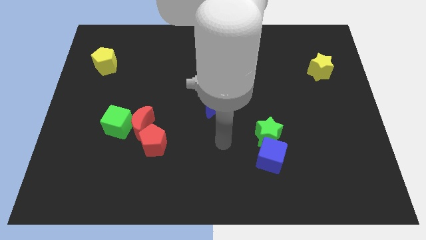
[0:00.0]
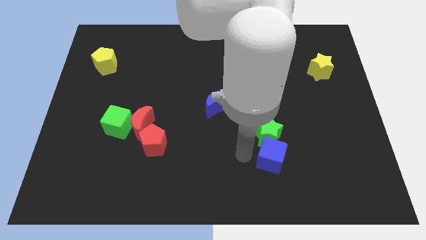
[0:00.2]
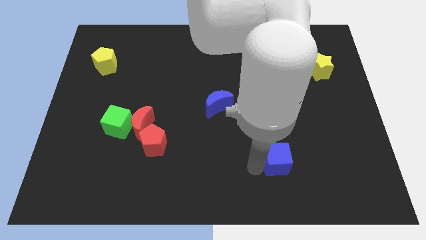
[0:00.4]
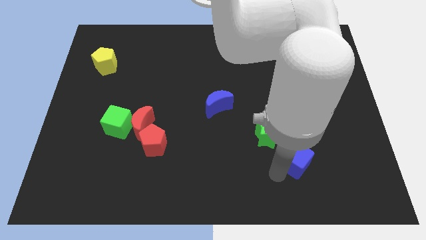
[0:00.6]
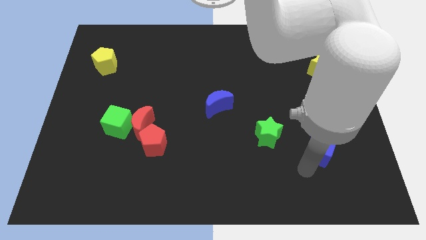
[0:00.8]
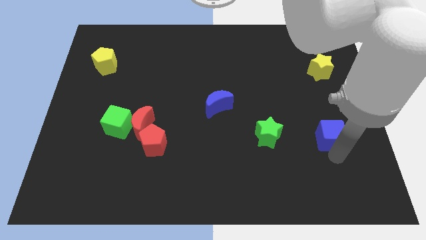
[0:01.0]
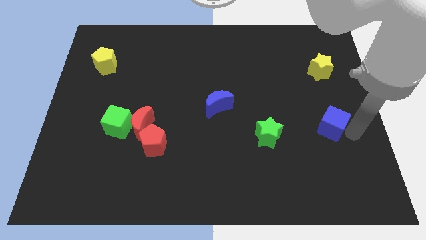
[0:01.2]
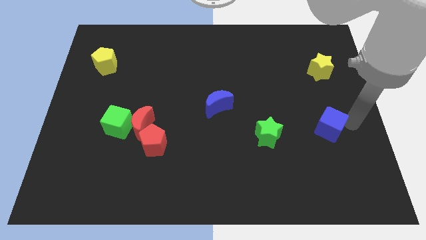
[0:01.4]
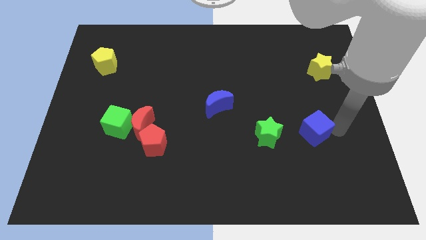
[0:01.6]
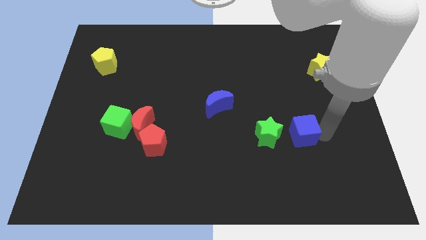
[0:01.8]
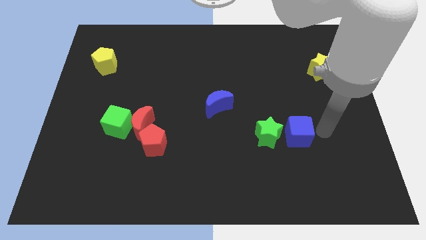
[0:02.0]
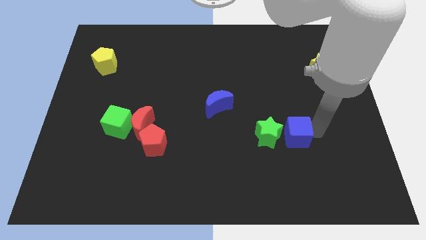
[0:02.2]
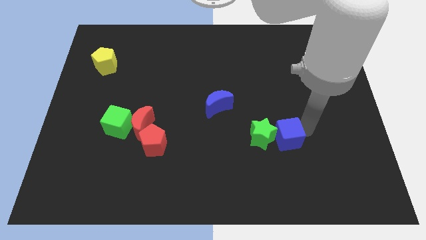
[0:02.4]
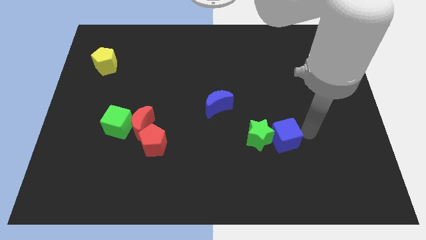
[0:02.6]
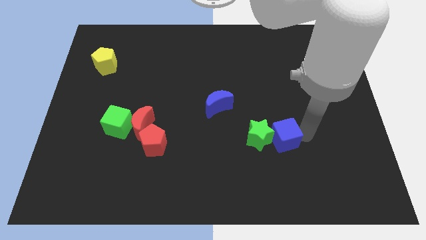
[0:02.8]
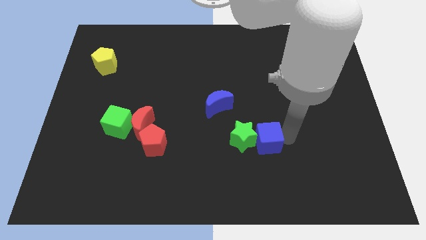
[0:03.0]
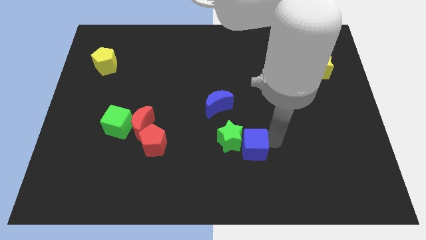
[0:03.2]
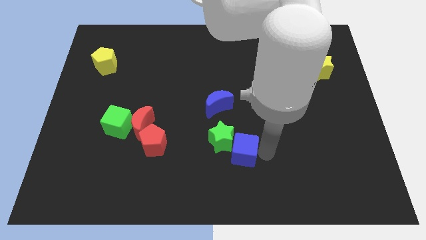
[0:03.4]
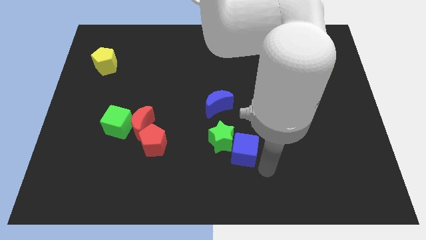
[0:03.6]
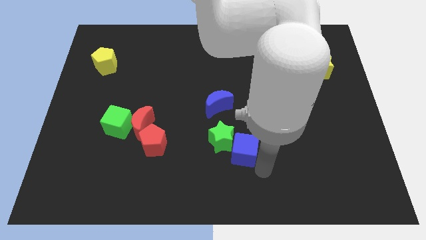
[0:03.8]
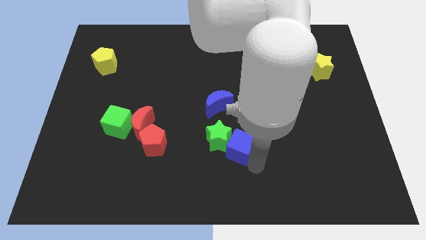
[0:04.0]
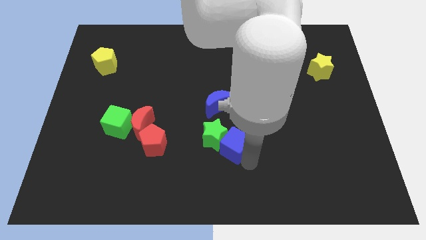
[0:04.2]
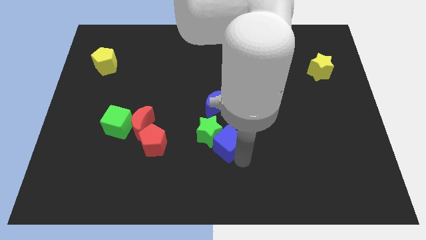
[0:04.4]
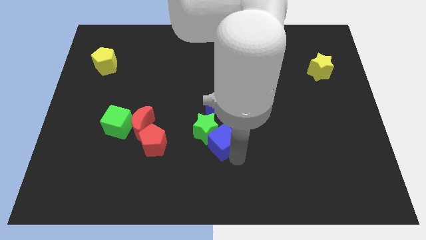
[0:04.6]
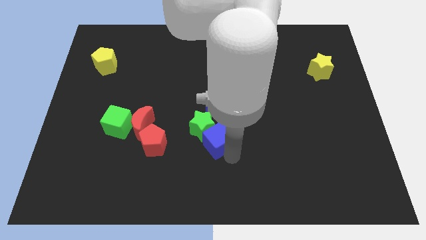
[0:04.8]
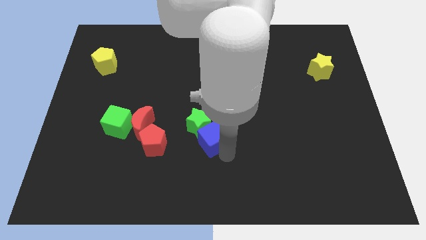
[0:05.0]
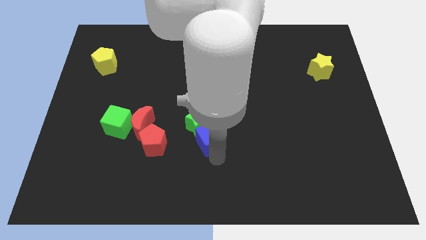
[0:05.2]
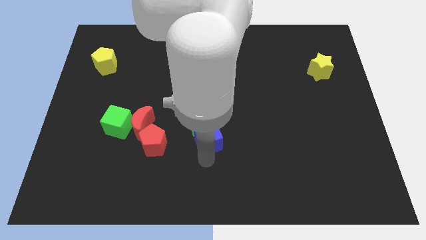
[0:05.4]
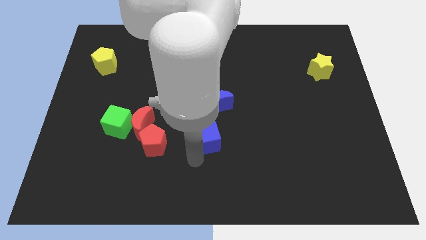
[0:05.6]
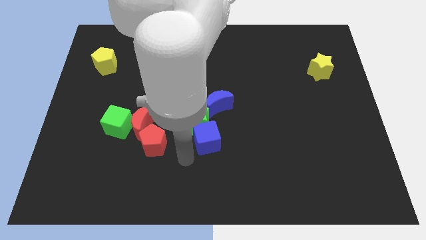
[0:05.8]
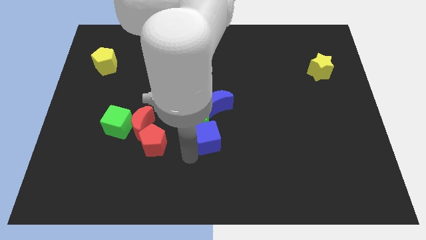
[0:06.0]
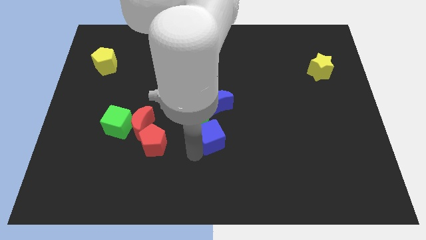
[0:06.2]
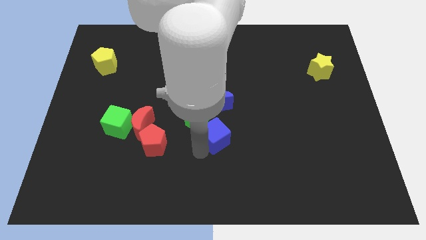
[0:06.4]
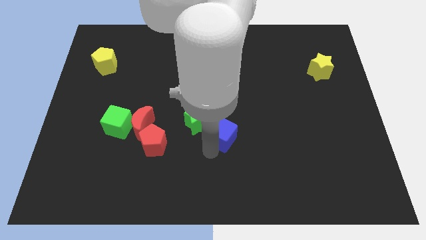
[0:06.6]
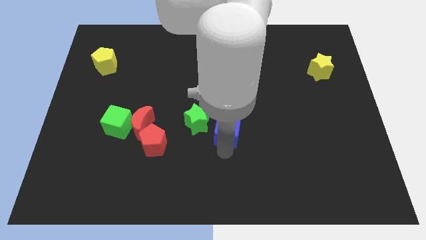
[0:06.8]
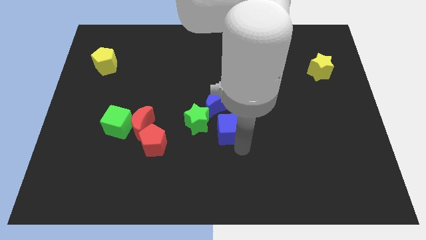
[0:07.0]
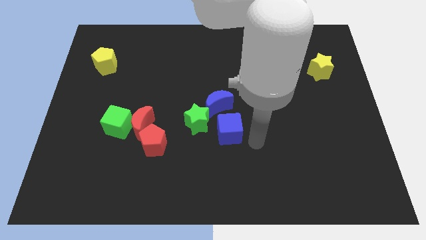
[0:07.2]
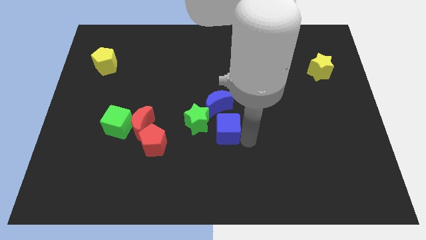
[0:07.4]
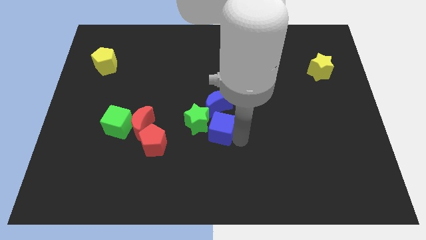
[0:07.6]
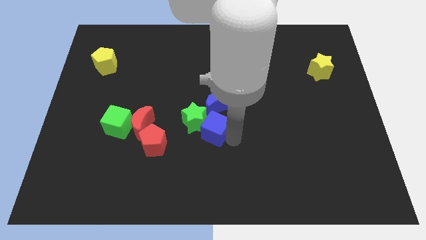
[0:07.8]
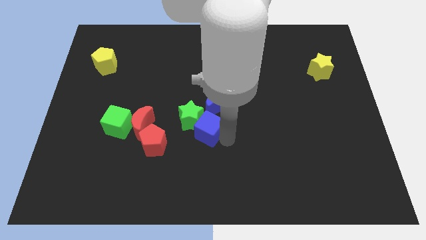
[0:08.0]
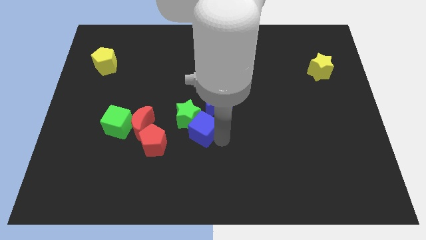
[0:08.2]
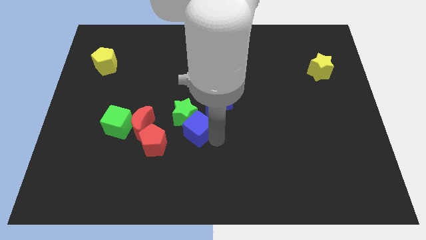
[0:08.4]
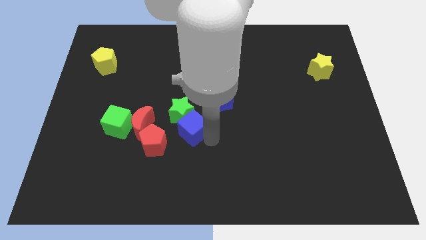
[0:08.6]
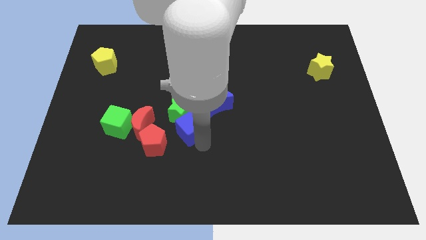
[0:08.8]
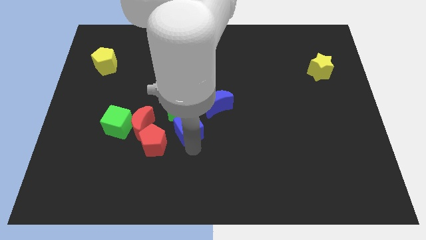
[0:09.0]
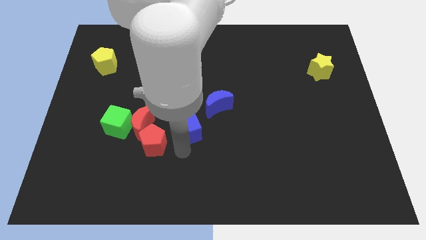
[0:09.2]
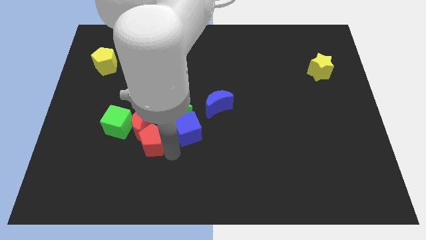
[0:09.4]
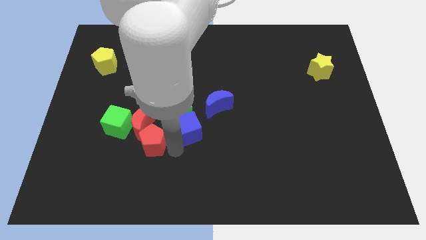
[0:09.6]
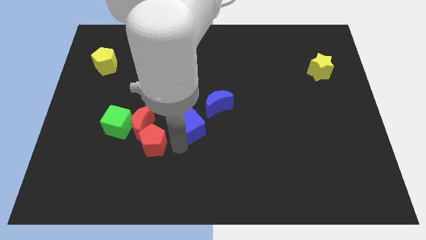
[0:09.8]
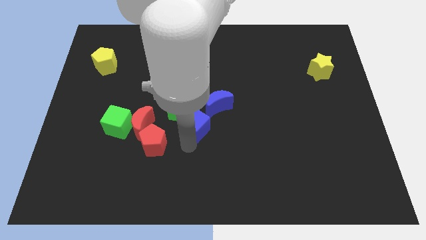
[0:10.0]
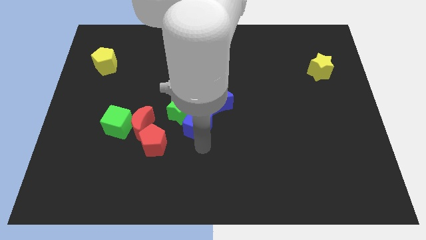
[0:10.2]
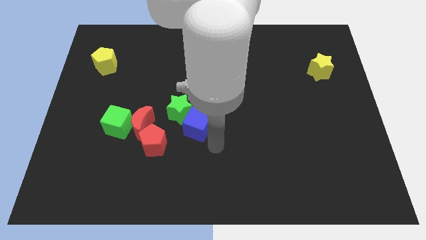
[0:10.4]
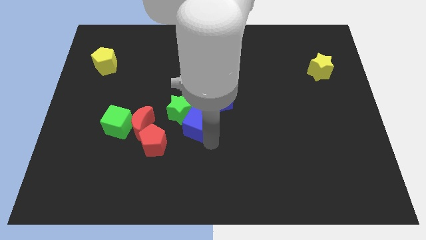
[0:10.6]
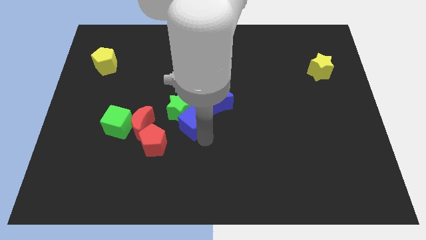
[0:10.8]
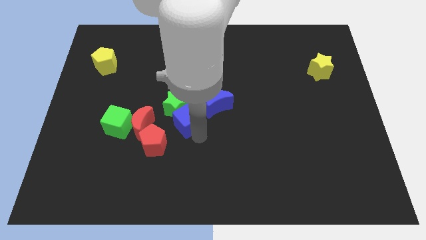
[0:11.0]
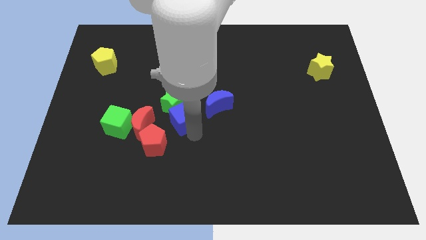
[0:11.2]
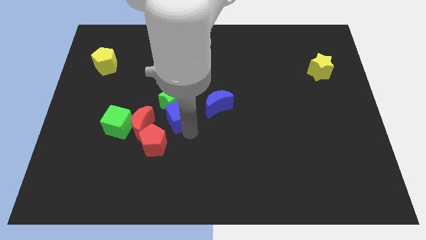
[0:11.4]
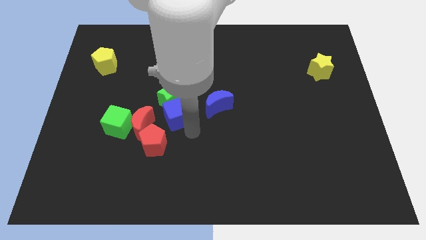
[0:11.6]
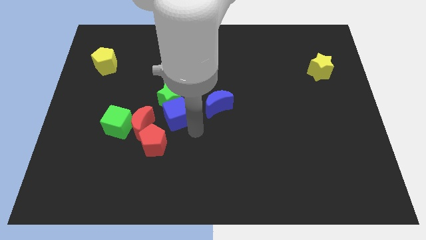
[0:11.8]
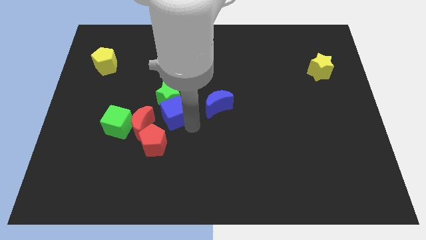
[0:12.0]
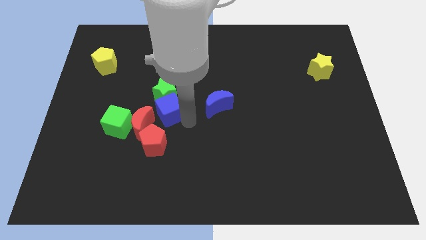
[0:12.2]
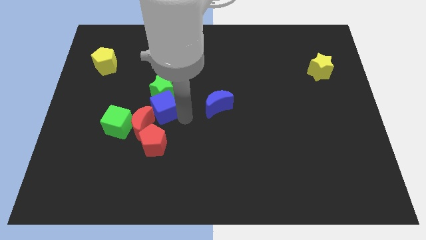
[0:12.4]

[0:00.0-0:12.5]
push the blue cube to the top of the red moon

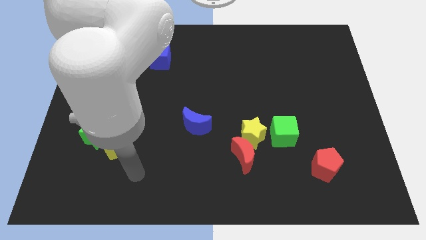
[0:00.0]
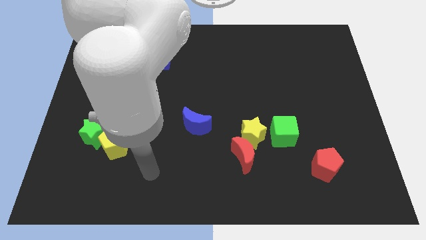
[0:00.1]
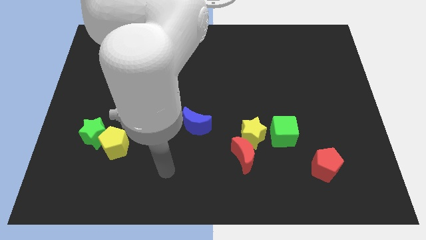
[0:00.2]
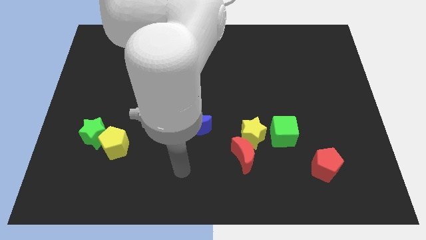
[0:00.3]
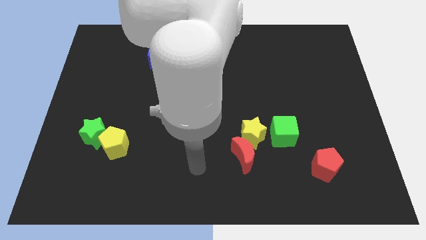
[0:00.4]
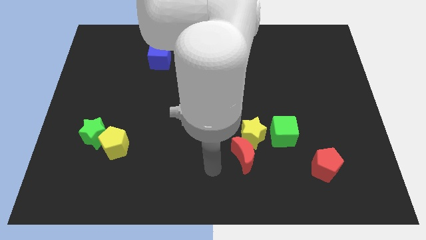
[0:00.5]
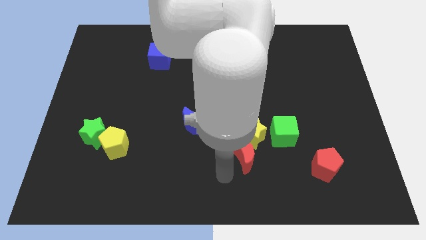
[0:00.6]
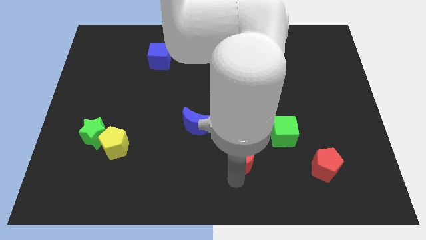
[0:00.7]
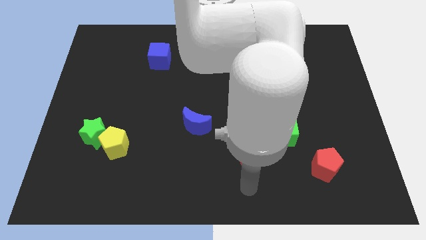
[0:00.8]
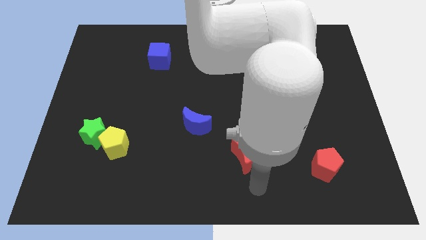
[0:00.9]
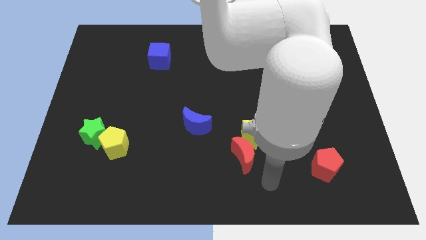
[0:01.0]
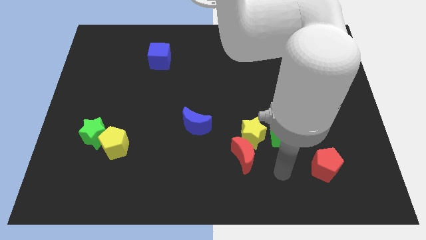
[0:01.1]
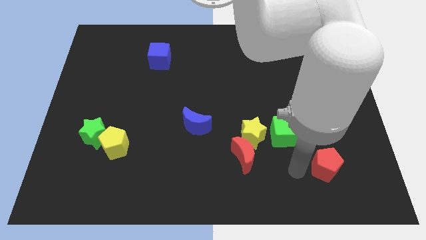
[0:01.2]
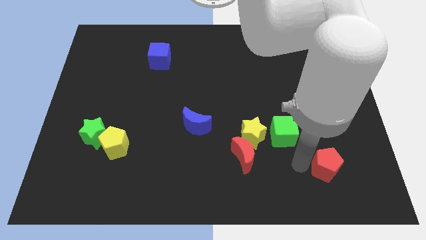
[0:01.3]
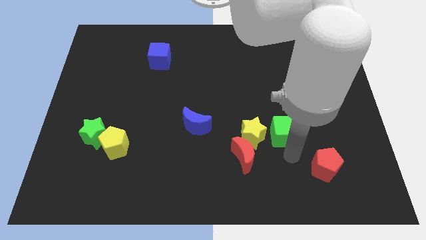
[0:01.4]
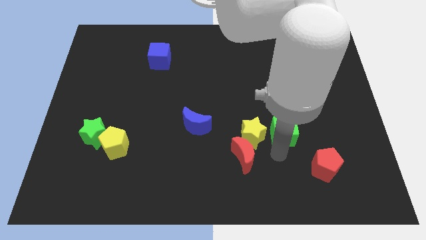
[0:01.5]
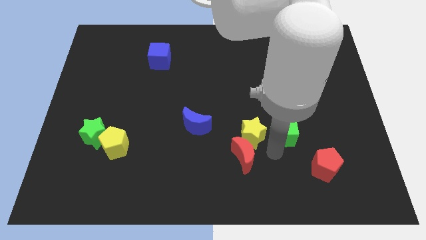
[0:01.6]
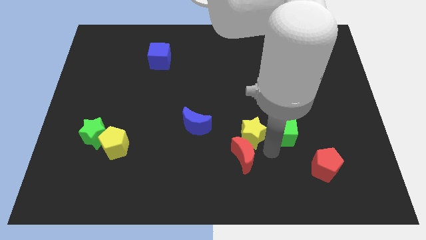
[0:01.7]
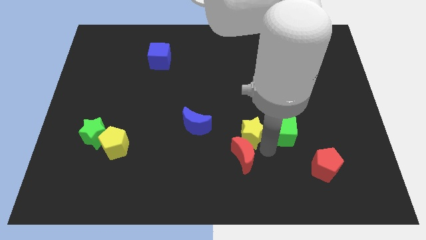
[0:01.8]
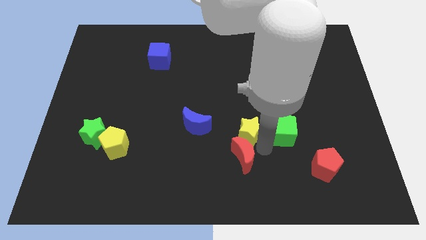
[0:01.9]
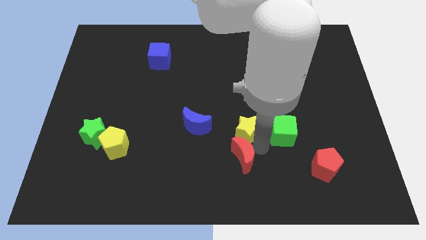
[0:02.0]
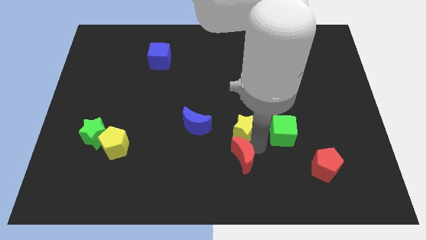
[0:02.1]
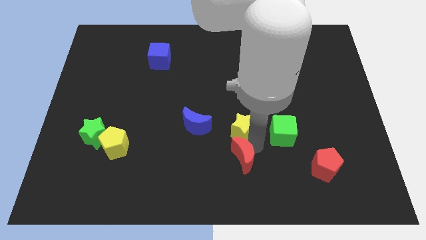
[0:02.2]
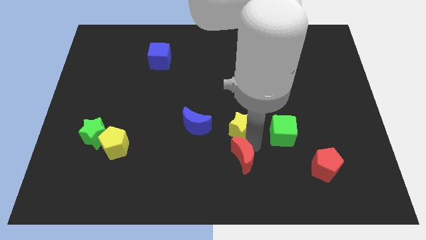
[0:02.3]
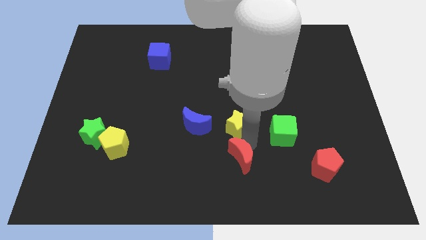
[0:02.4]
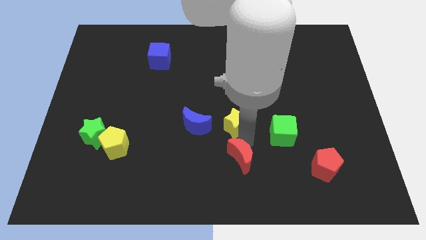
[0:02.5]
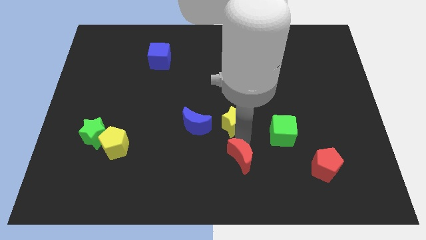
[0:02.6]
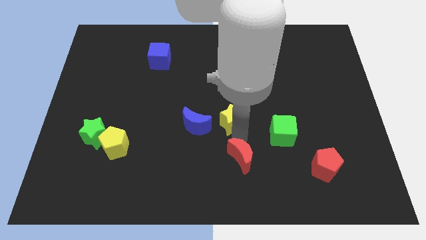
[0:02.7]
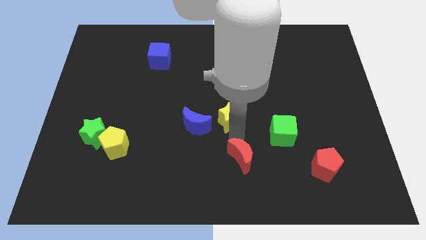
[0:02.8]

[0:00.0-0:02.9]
push the yellow star diagonally up and to the right of the blue moon
